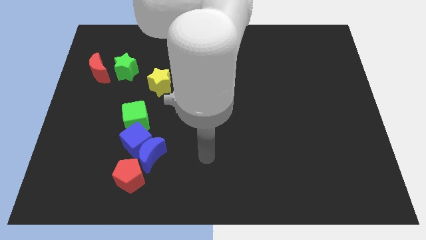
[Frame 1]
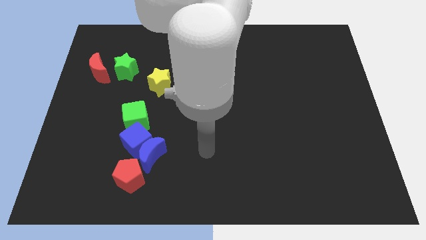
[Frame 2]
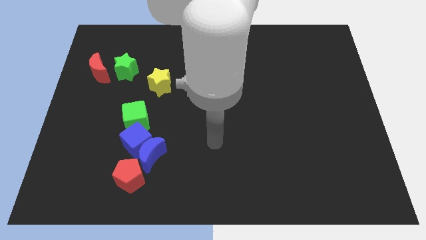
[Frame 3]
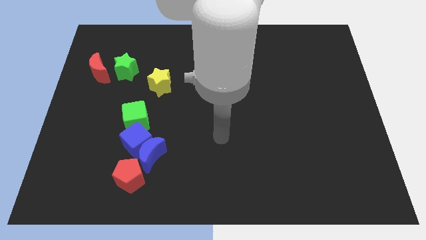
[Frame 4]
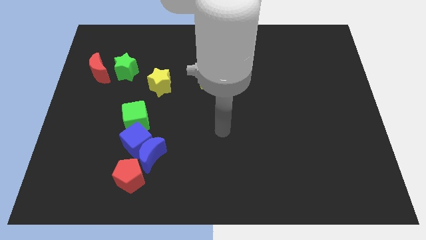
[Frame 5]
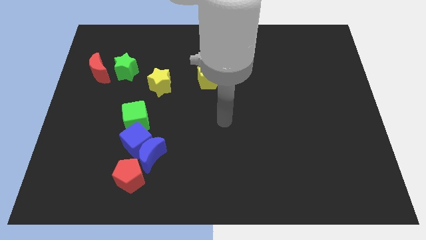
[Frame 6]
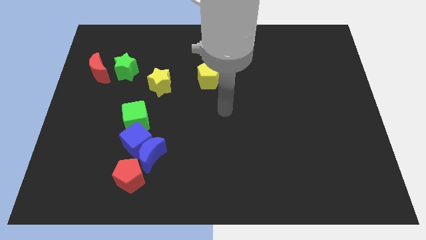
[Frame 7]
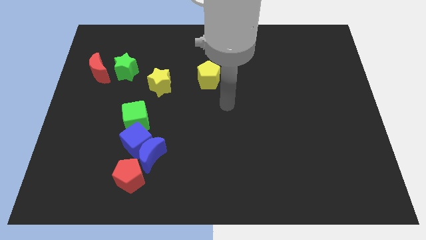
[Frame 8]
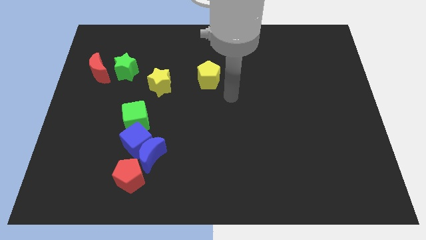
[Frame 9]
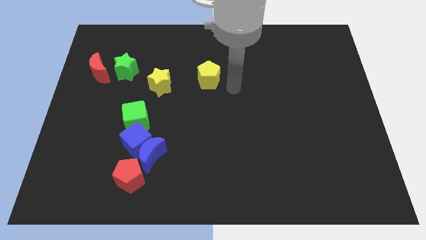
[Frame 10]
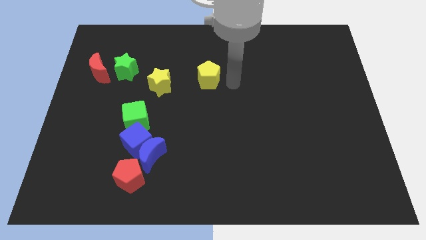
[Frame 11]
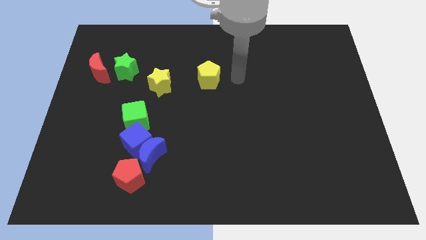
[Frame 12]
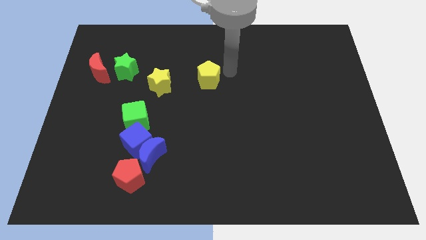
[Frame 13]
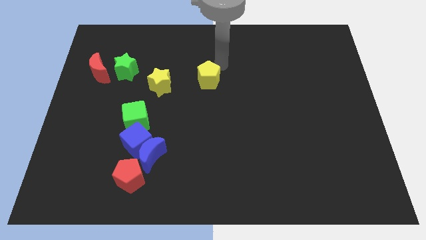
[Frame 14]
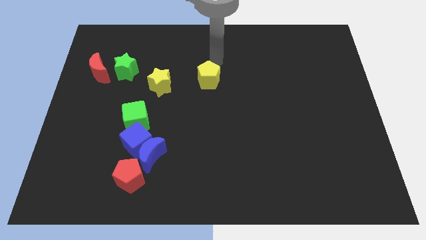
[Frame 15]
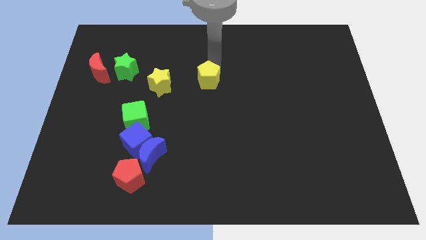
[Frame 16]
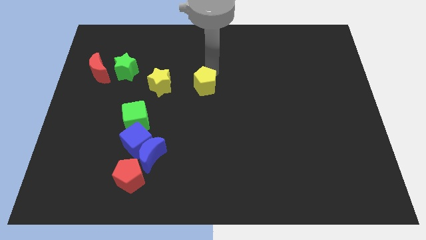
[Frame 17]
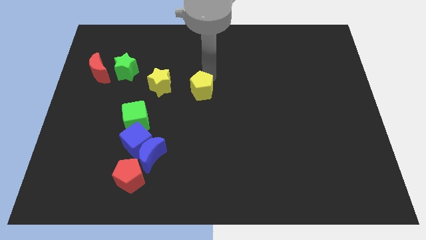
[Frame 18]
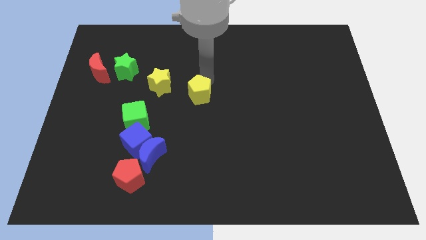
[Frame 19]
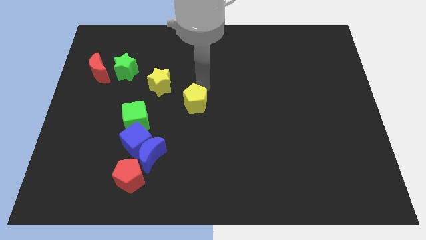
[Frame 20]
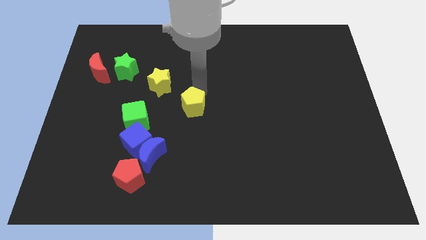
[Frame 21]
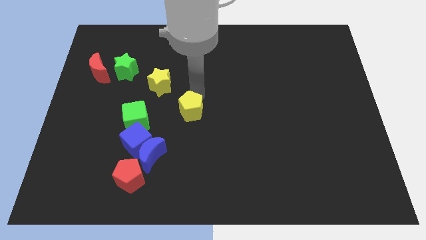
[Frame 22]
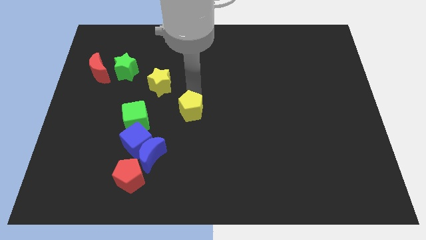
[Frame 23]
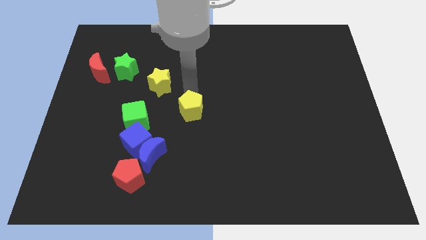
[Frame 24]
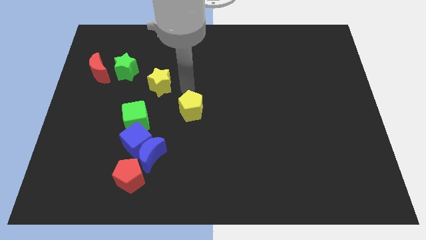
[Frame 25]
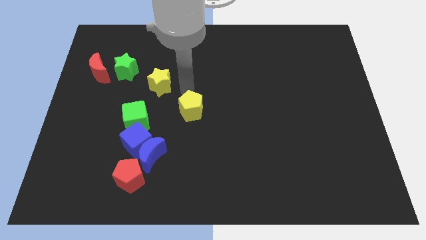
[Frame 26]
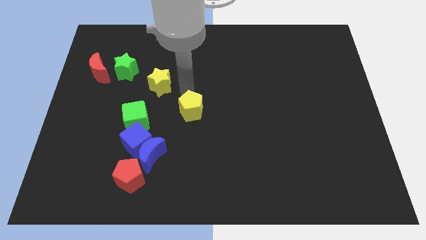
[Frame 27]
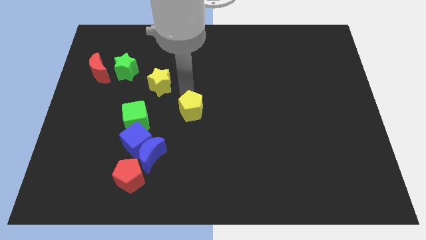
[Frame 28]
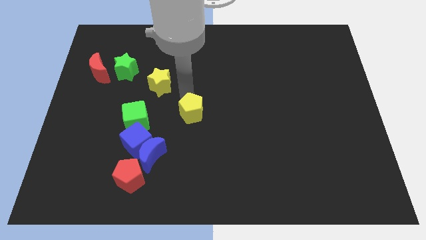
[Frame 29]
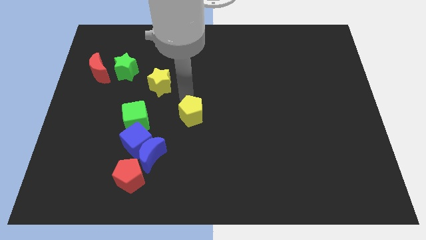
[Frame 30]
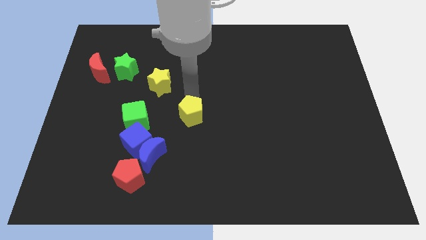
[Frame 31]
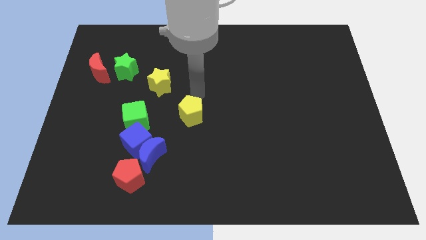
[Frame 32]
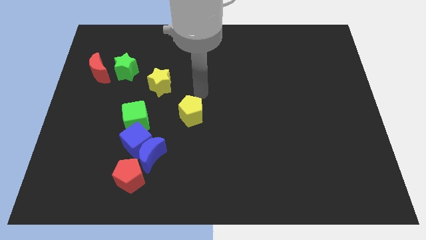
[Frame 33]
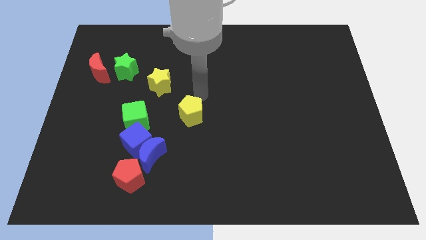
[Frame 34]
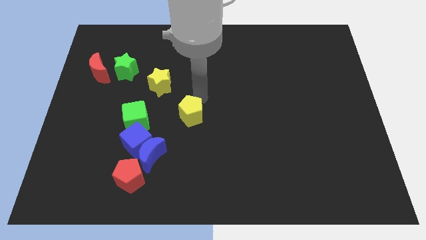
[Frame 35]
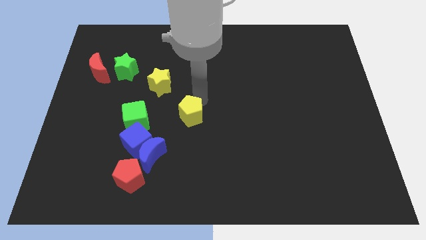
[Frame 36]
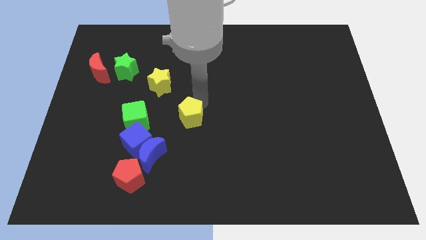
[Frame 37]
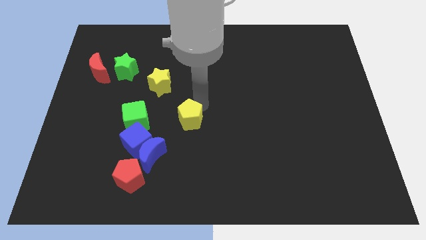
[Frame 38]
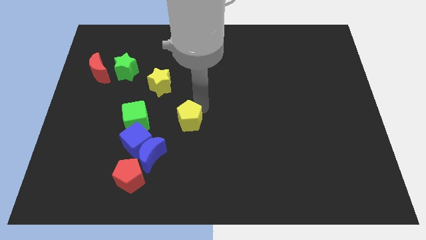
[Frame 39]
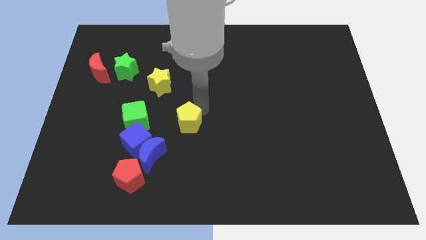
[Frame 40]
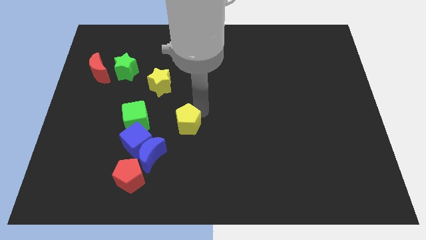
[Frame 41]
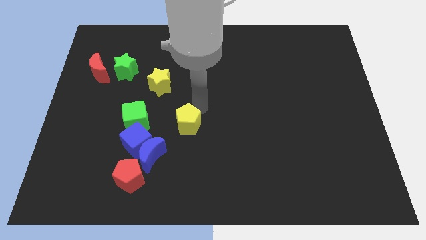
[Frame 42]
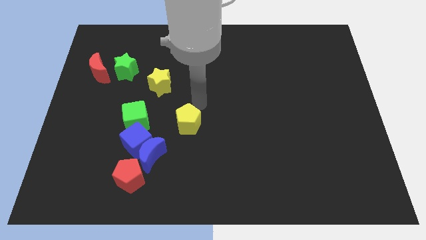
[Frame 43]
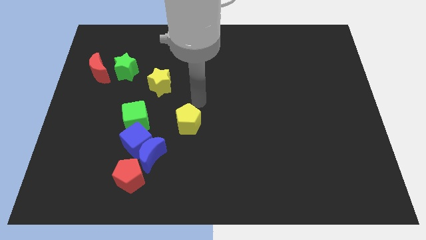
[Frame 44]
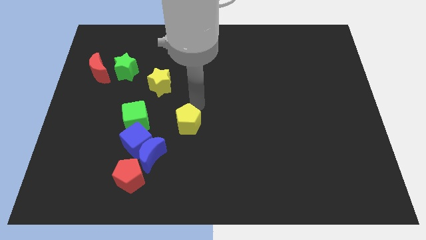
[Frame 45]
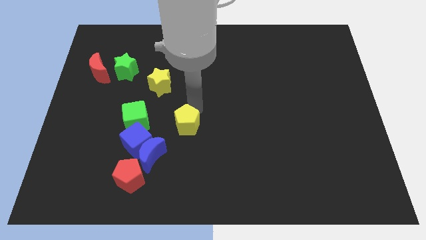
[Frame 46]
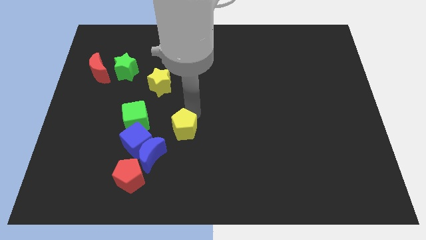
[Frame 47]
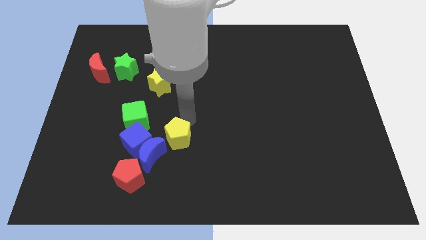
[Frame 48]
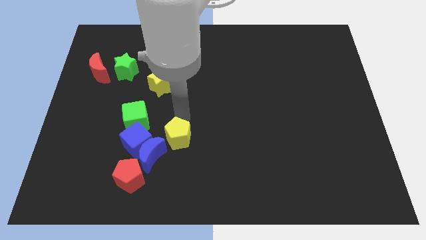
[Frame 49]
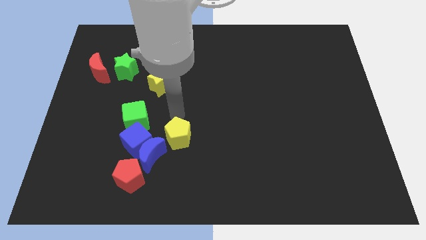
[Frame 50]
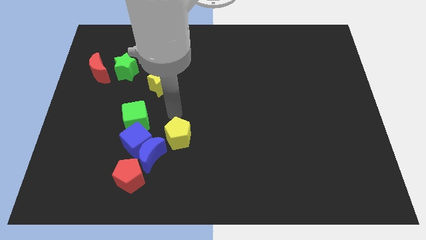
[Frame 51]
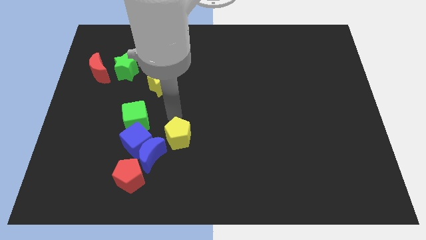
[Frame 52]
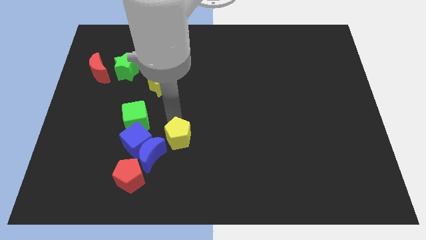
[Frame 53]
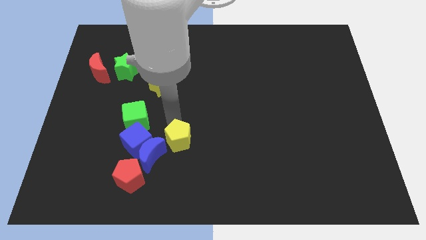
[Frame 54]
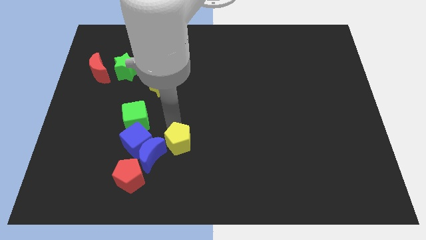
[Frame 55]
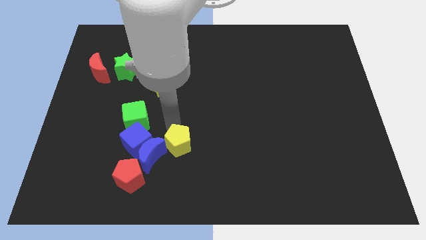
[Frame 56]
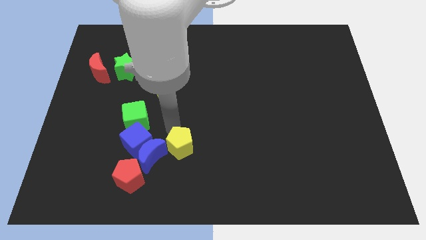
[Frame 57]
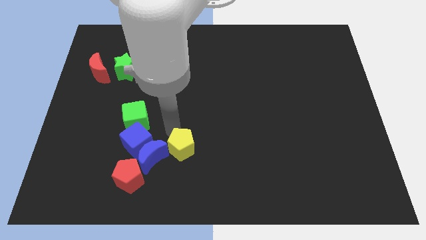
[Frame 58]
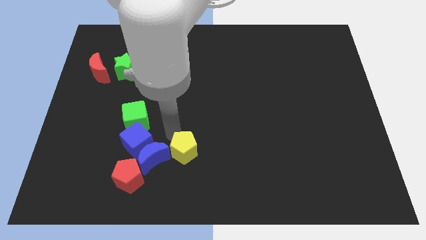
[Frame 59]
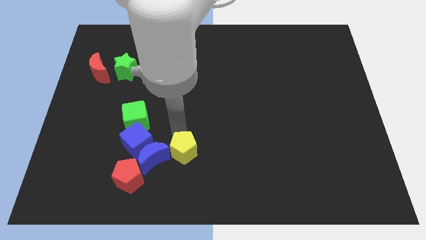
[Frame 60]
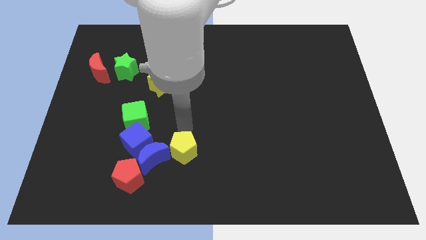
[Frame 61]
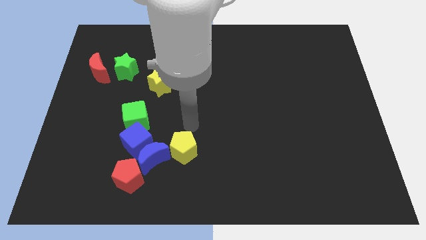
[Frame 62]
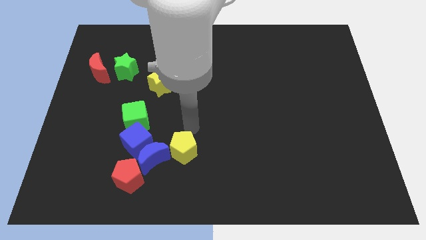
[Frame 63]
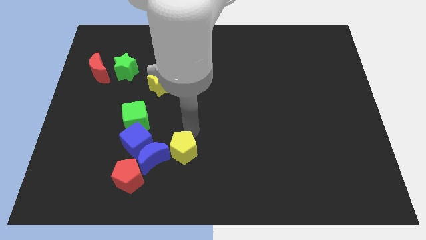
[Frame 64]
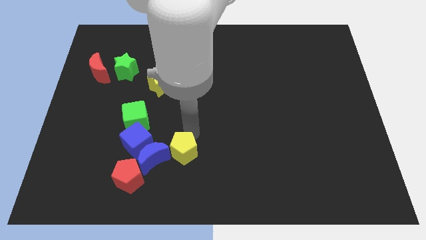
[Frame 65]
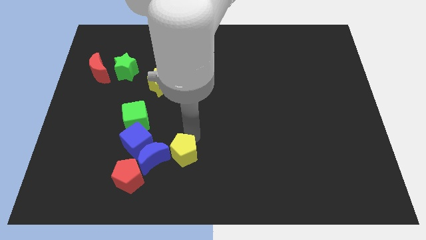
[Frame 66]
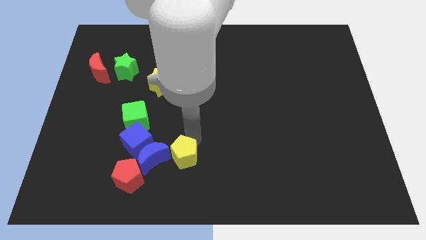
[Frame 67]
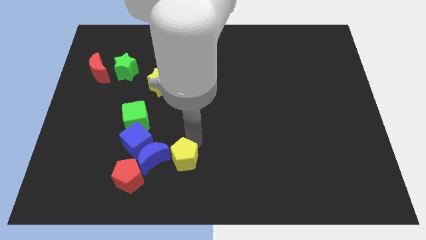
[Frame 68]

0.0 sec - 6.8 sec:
put the yellow pentagon diagonally down and to the right of the blue moon
